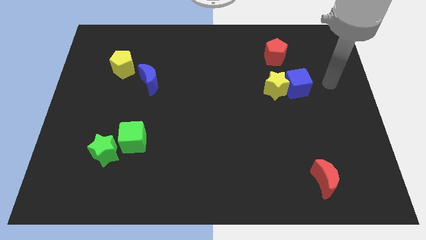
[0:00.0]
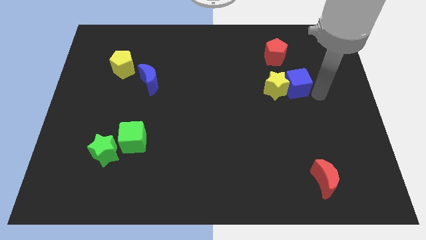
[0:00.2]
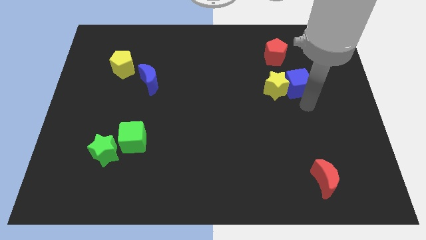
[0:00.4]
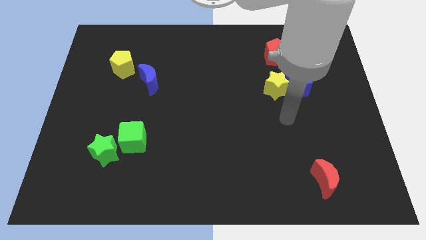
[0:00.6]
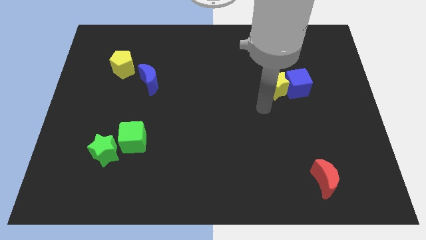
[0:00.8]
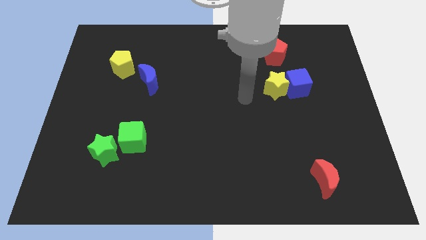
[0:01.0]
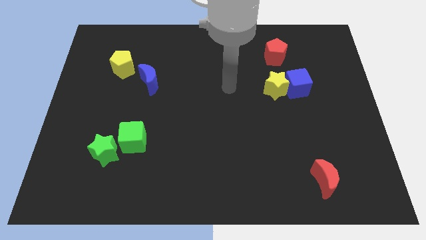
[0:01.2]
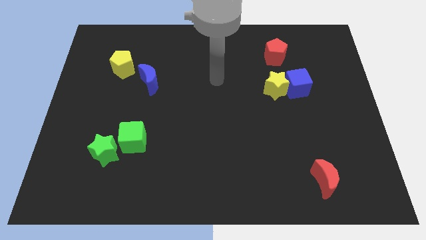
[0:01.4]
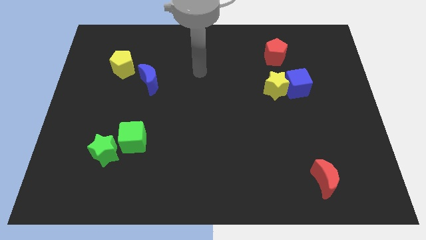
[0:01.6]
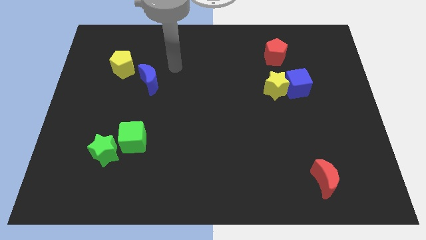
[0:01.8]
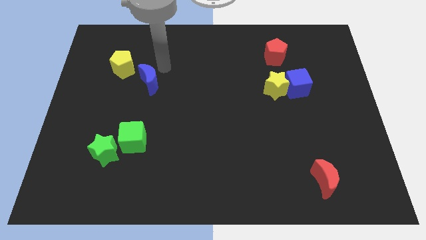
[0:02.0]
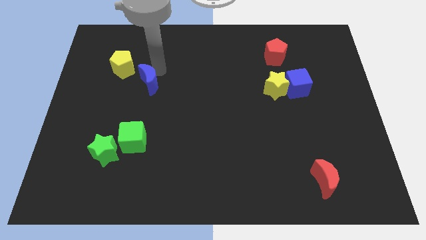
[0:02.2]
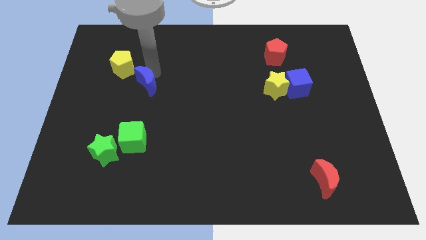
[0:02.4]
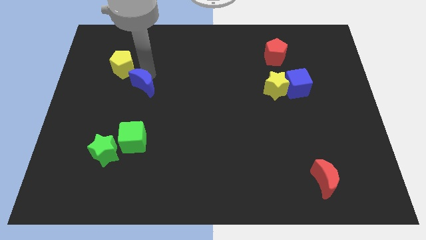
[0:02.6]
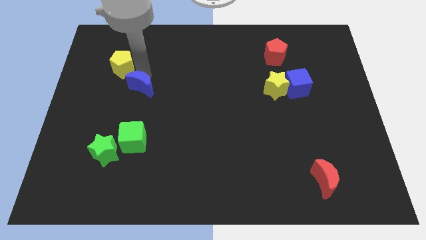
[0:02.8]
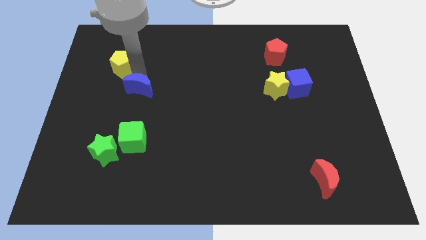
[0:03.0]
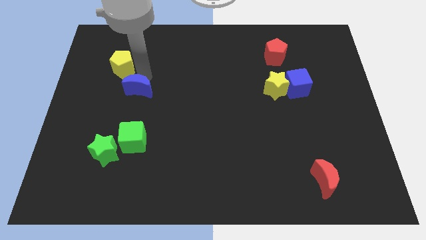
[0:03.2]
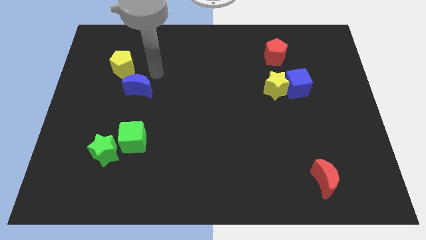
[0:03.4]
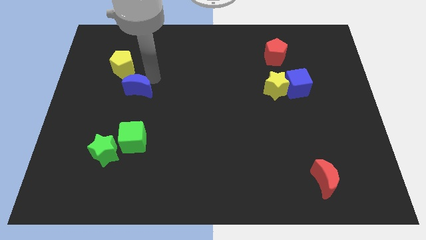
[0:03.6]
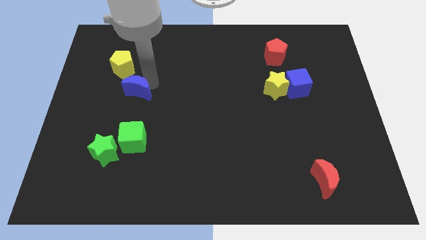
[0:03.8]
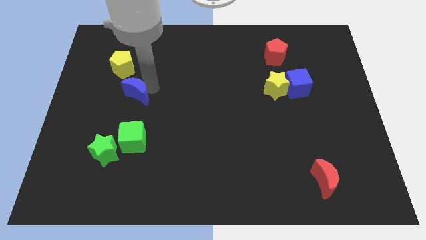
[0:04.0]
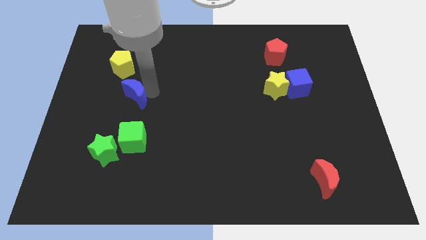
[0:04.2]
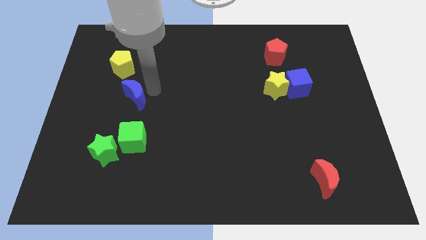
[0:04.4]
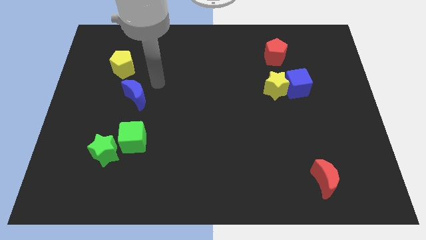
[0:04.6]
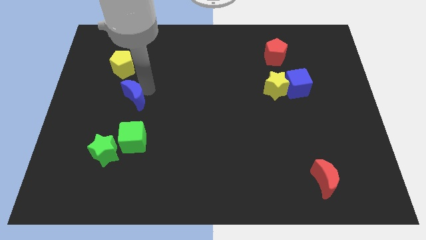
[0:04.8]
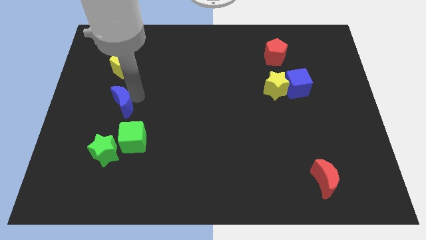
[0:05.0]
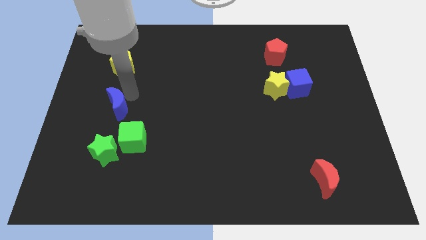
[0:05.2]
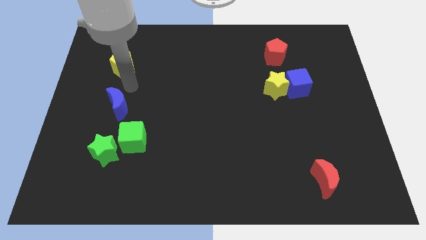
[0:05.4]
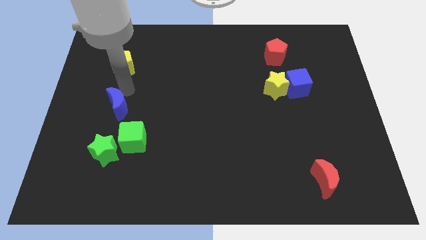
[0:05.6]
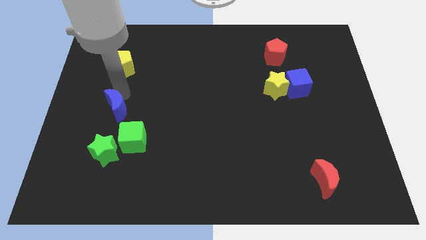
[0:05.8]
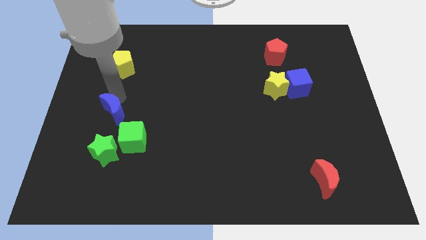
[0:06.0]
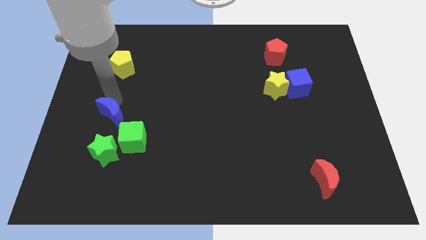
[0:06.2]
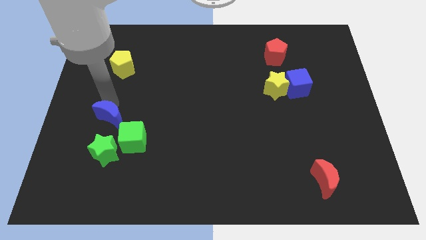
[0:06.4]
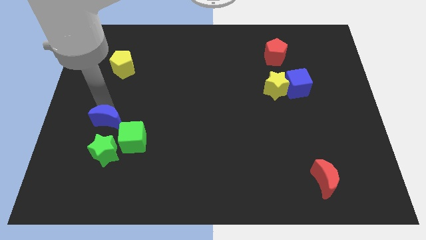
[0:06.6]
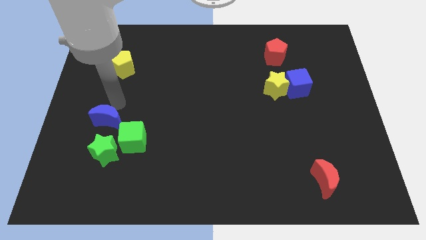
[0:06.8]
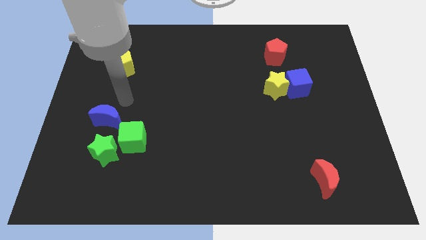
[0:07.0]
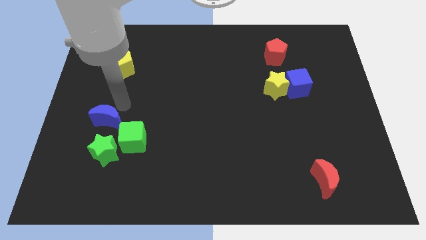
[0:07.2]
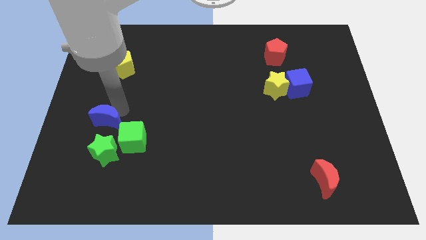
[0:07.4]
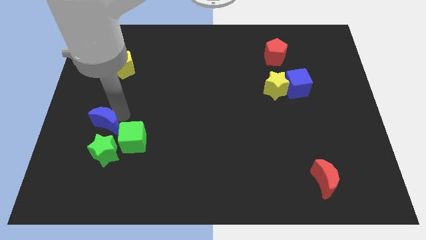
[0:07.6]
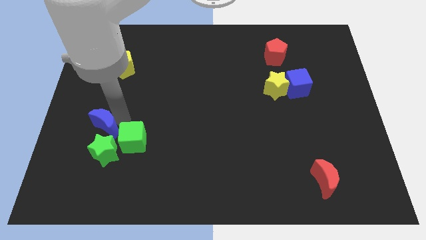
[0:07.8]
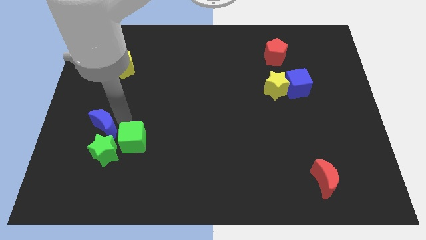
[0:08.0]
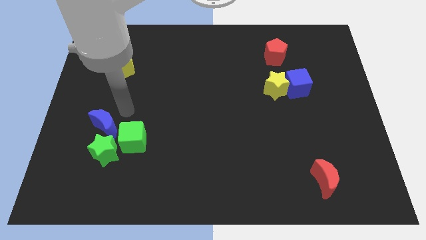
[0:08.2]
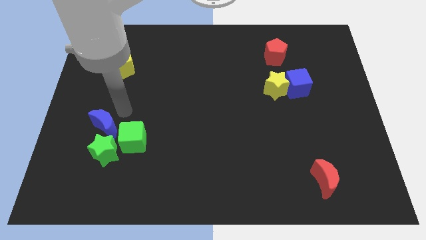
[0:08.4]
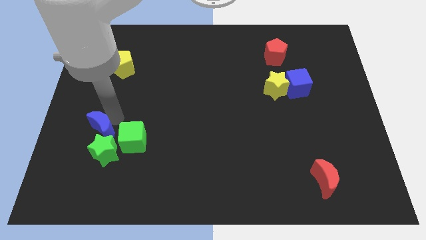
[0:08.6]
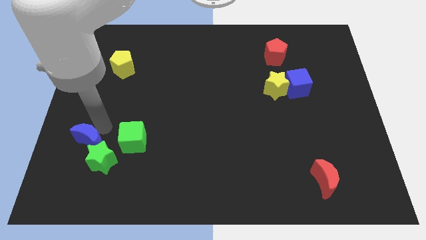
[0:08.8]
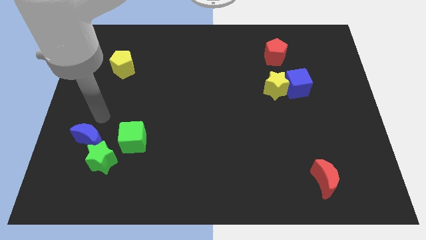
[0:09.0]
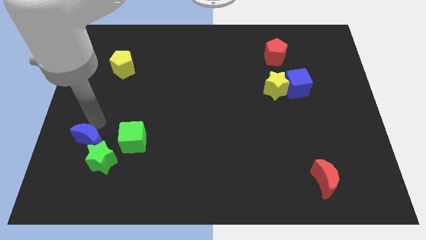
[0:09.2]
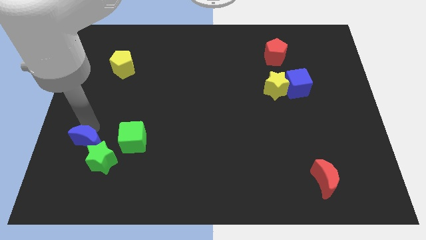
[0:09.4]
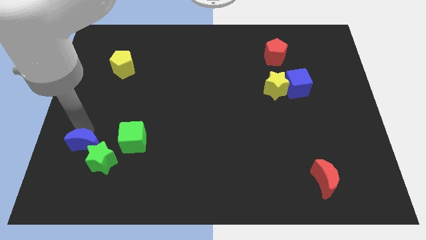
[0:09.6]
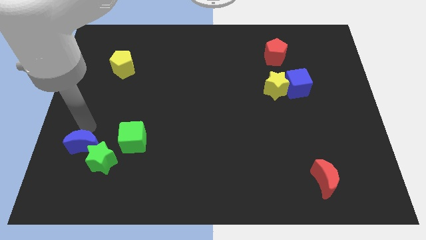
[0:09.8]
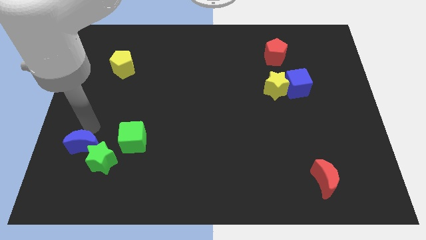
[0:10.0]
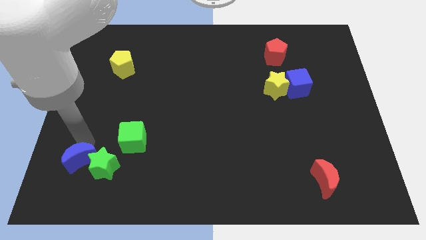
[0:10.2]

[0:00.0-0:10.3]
put the blue moon to the bottom left side of the green star

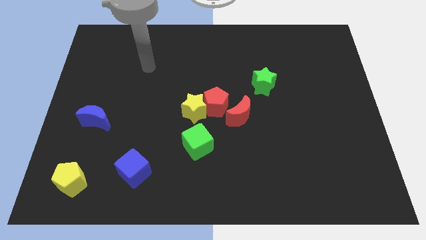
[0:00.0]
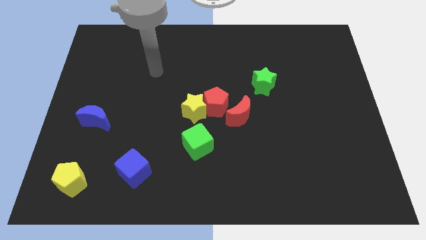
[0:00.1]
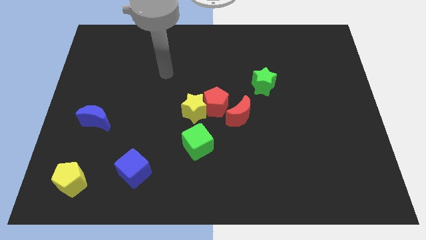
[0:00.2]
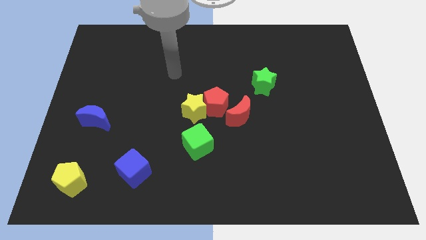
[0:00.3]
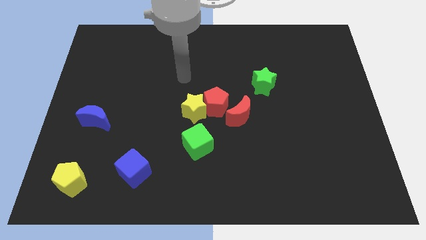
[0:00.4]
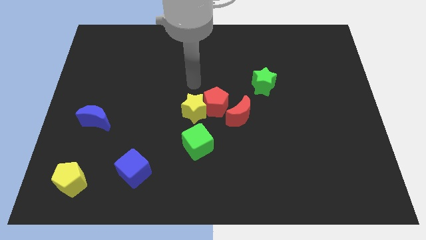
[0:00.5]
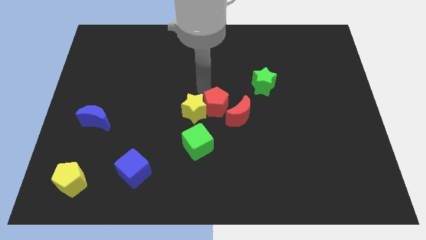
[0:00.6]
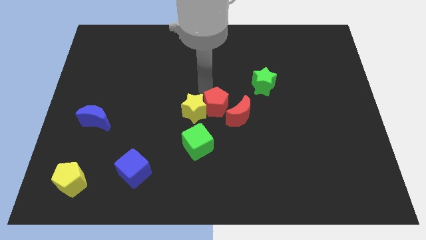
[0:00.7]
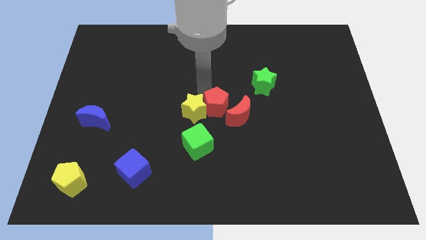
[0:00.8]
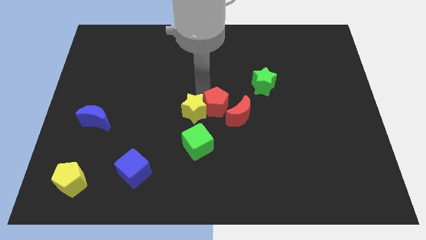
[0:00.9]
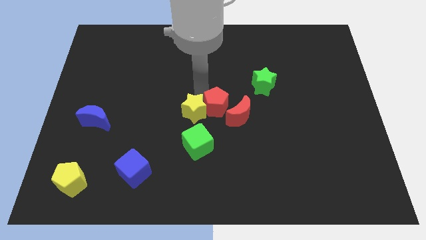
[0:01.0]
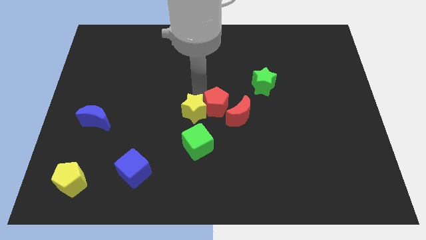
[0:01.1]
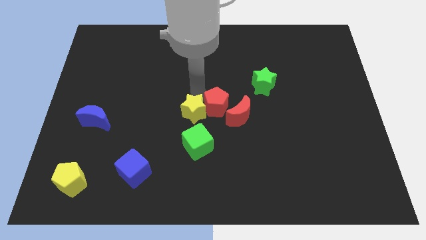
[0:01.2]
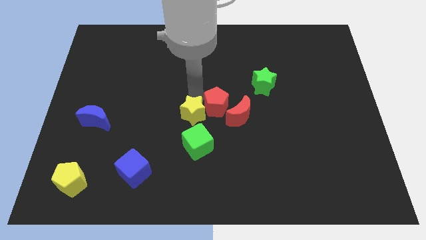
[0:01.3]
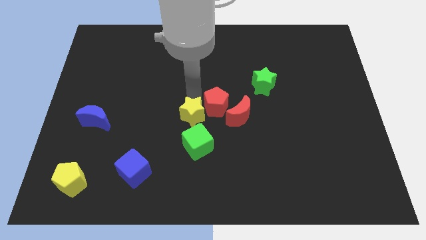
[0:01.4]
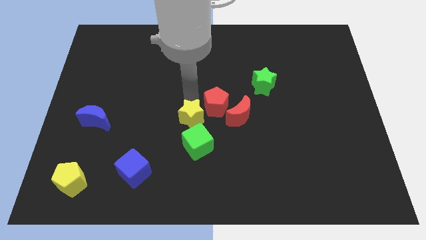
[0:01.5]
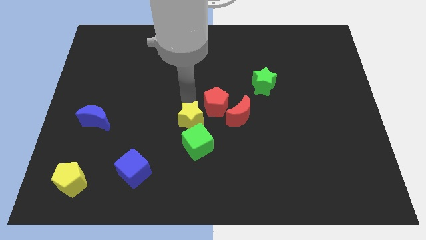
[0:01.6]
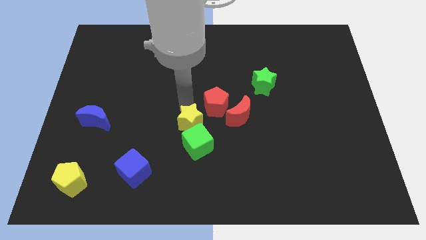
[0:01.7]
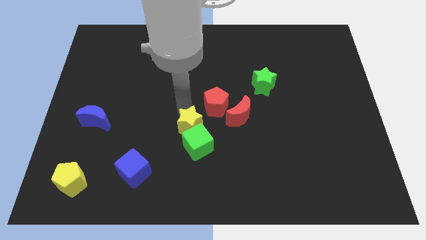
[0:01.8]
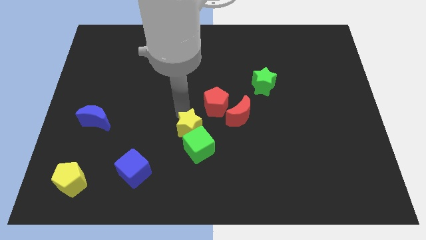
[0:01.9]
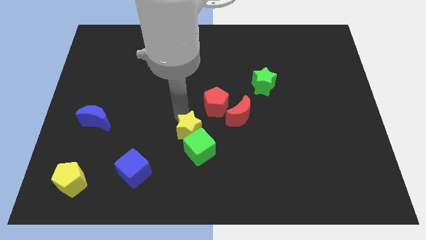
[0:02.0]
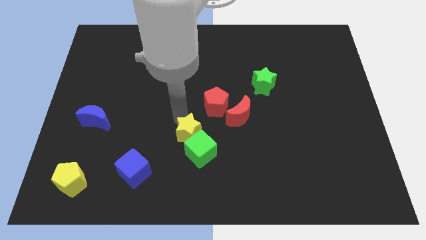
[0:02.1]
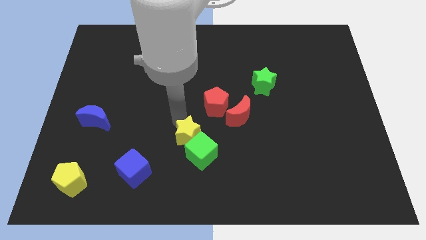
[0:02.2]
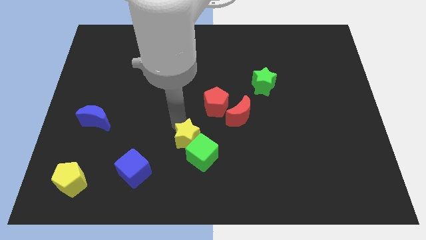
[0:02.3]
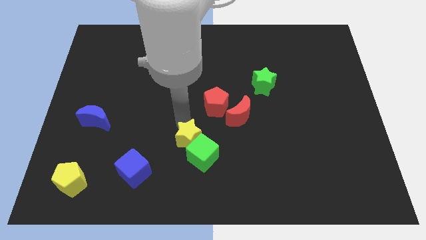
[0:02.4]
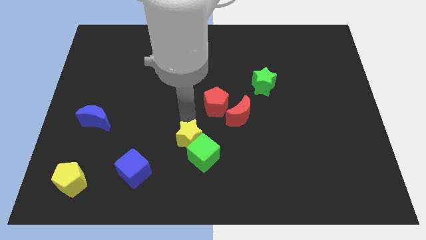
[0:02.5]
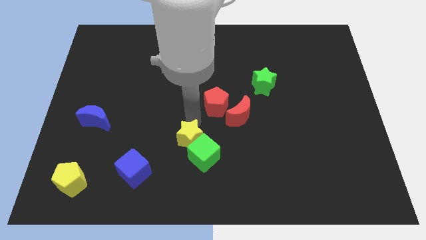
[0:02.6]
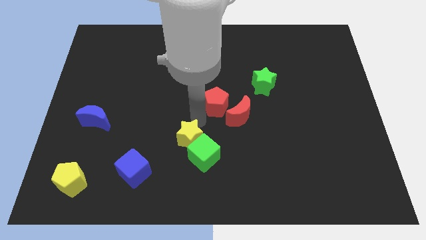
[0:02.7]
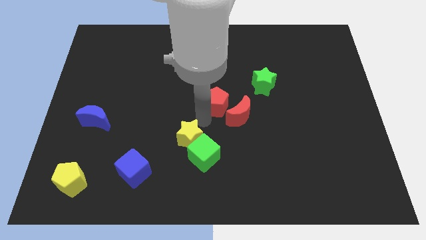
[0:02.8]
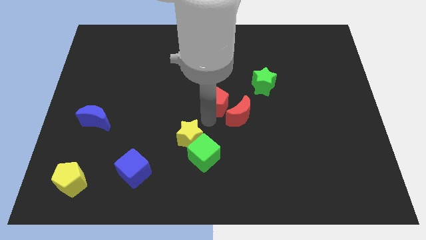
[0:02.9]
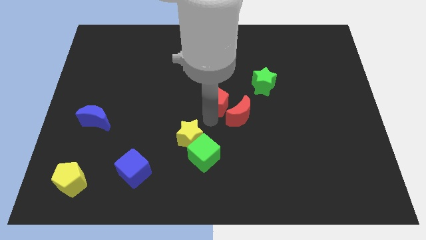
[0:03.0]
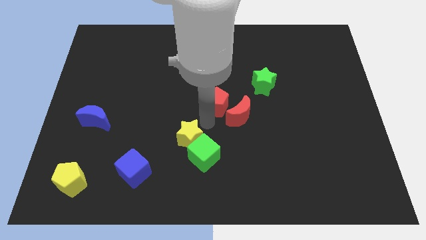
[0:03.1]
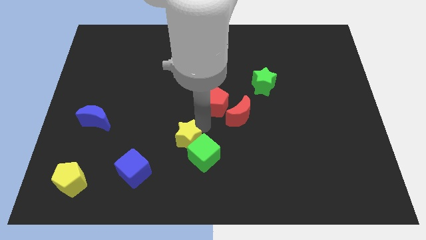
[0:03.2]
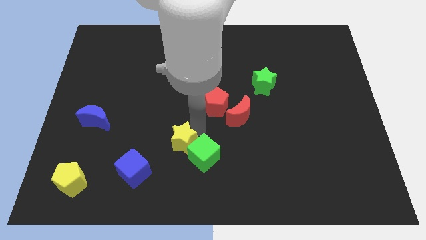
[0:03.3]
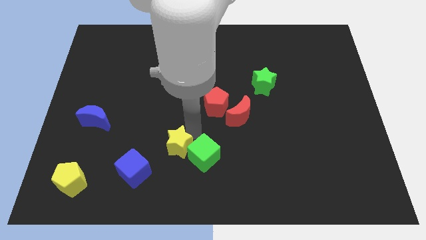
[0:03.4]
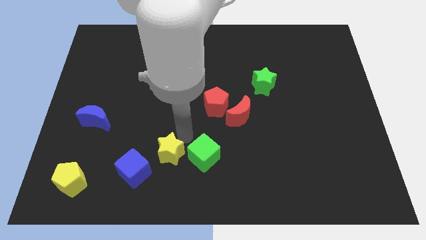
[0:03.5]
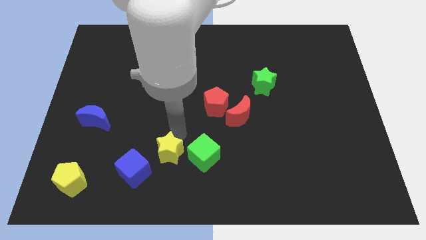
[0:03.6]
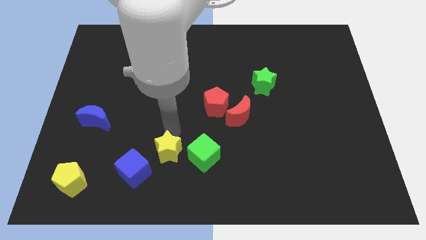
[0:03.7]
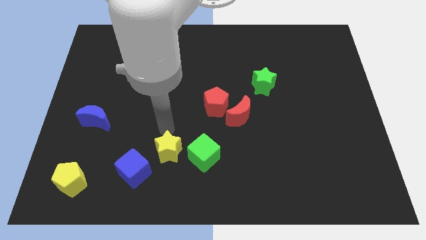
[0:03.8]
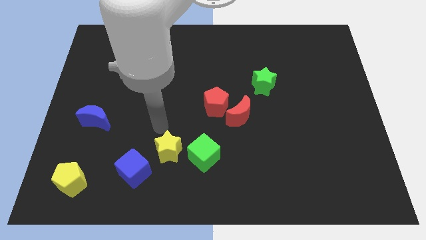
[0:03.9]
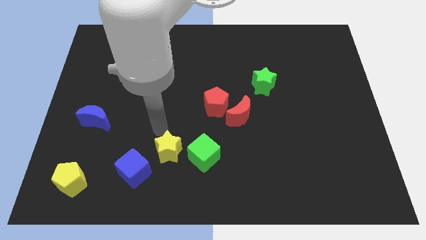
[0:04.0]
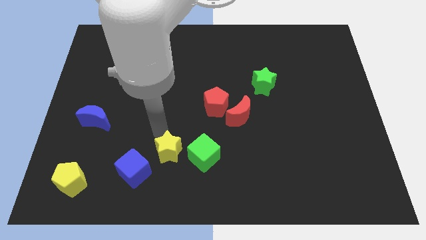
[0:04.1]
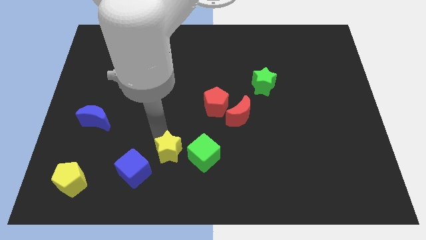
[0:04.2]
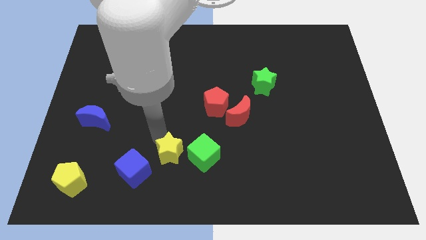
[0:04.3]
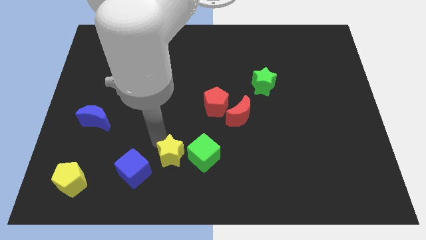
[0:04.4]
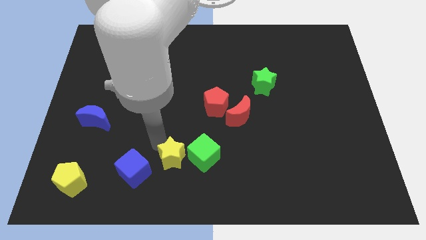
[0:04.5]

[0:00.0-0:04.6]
push the yellow star diagonally down and to the left of the green cube
